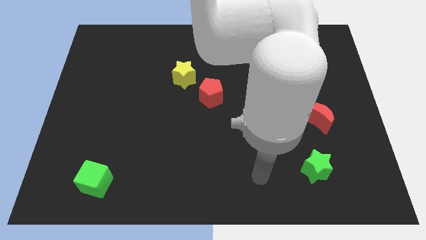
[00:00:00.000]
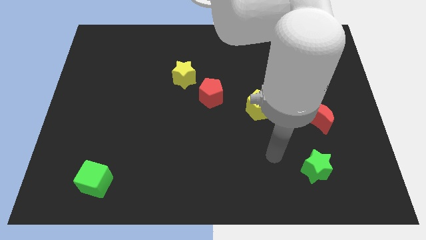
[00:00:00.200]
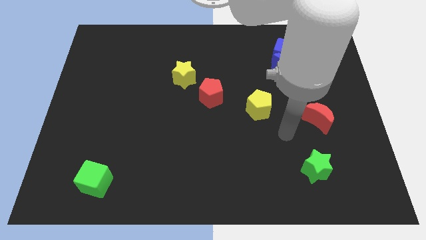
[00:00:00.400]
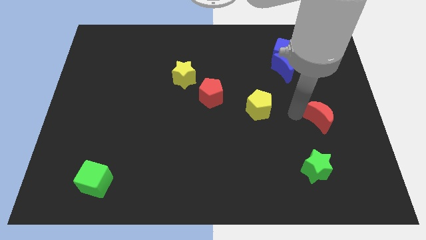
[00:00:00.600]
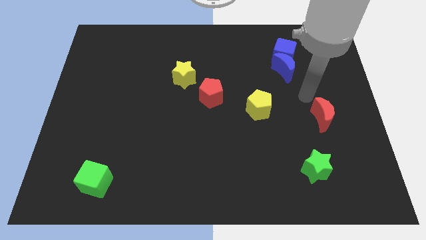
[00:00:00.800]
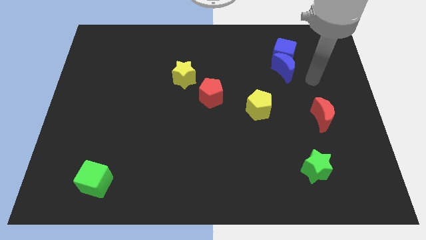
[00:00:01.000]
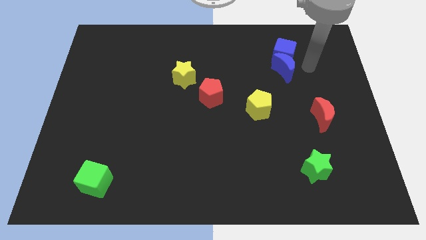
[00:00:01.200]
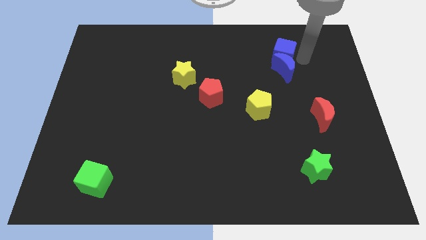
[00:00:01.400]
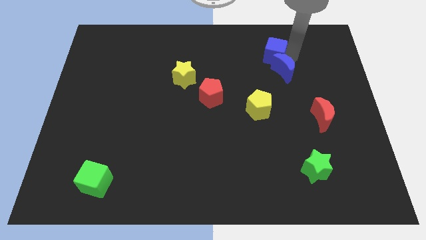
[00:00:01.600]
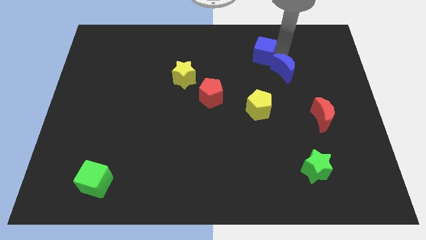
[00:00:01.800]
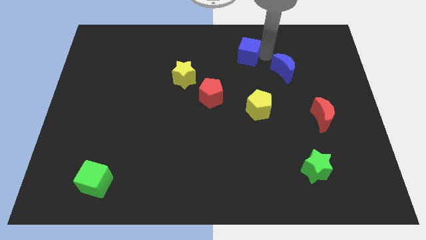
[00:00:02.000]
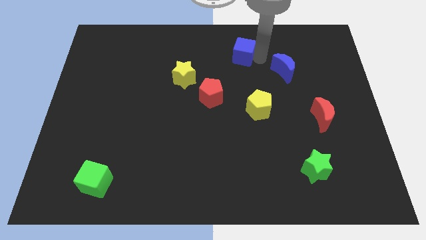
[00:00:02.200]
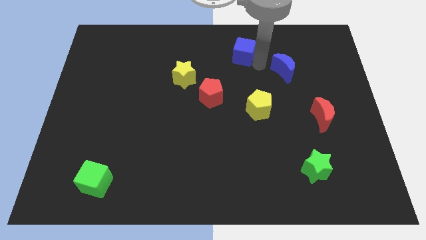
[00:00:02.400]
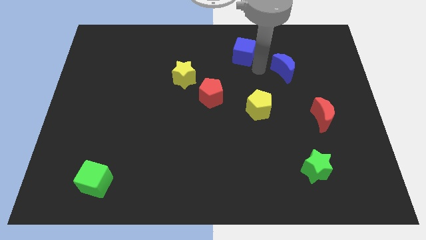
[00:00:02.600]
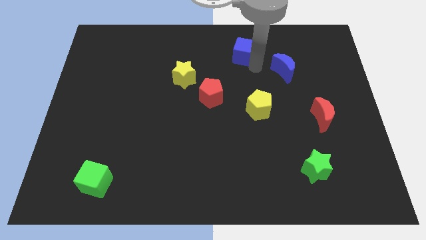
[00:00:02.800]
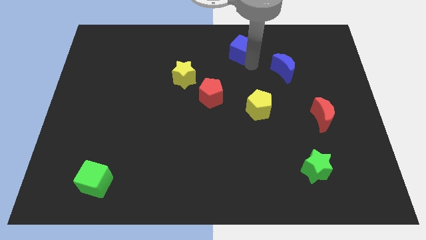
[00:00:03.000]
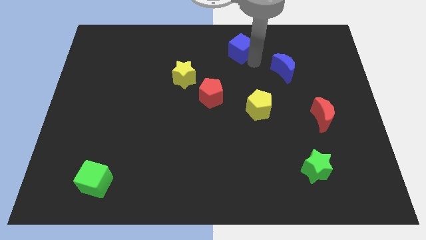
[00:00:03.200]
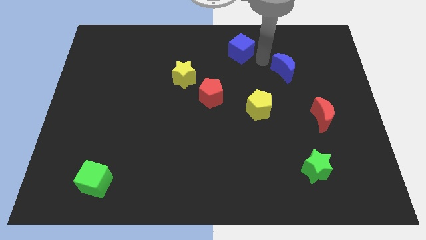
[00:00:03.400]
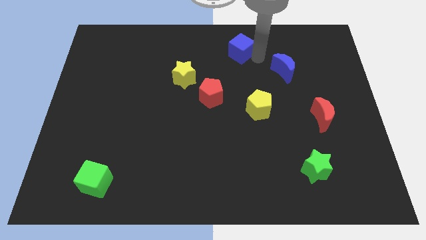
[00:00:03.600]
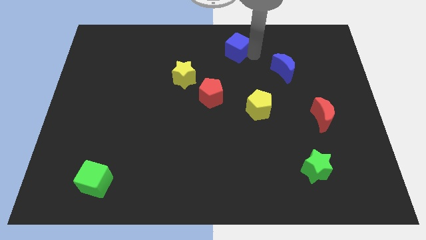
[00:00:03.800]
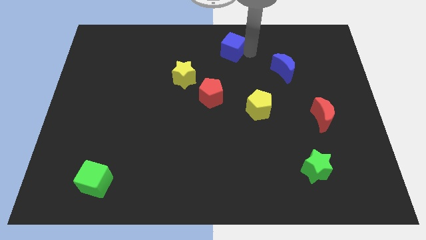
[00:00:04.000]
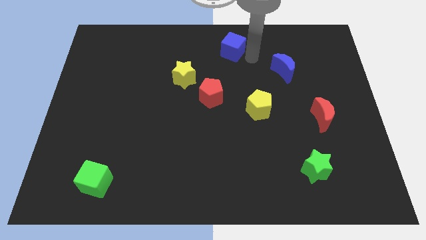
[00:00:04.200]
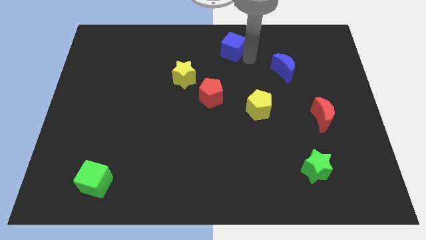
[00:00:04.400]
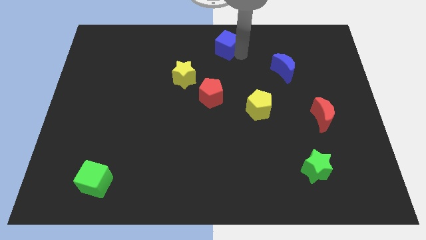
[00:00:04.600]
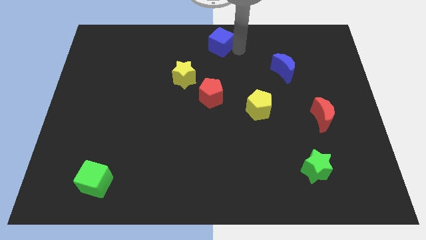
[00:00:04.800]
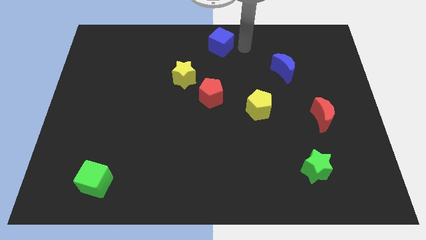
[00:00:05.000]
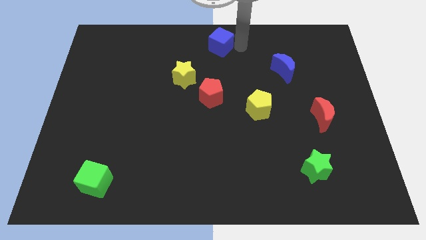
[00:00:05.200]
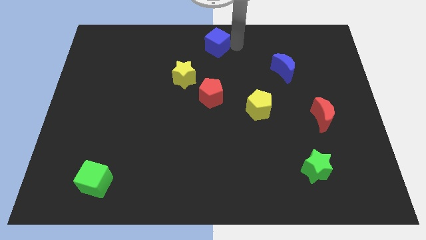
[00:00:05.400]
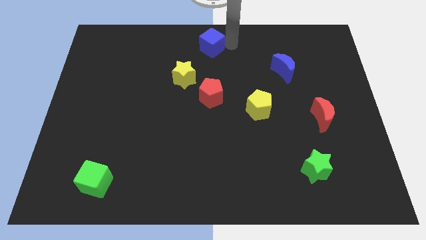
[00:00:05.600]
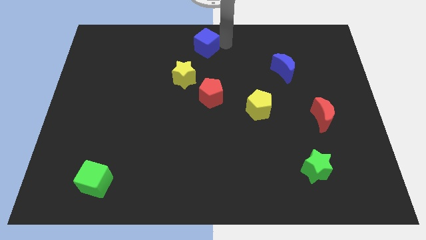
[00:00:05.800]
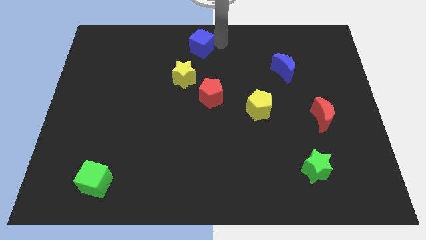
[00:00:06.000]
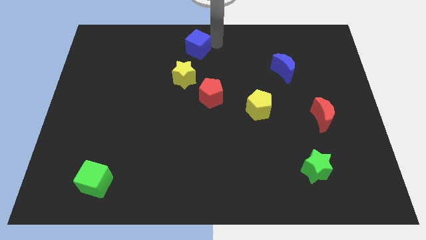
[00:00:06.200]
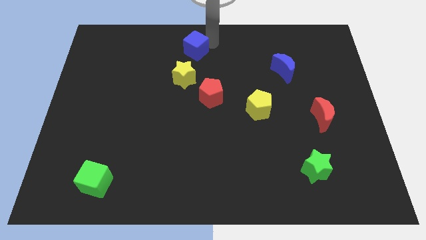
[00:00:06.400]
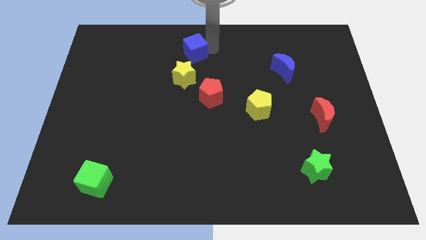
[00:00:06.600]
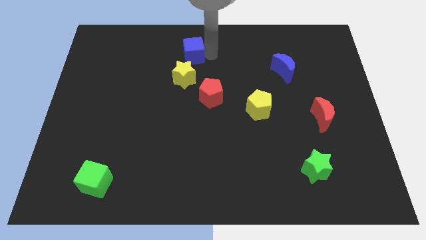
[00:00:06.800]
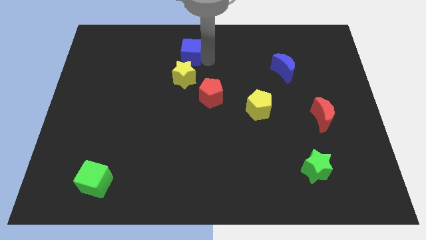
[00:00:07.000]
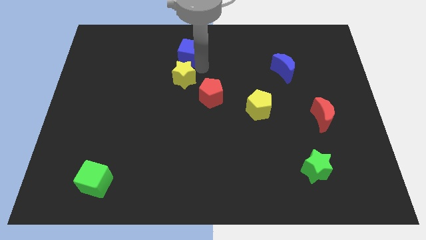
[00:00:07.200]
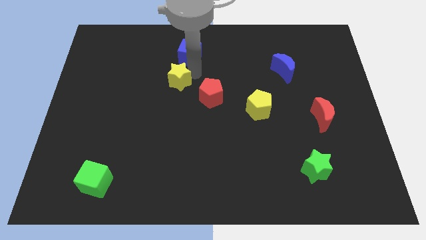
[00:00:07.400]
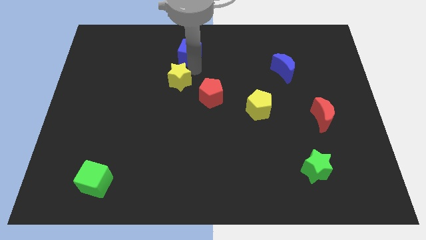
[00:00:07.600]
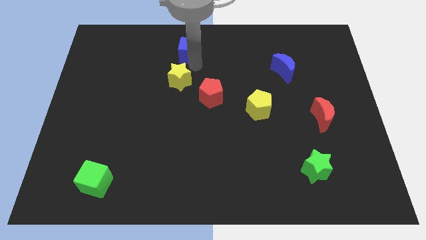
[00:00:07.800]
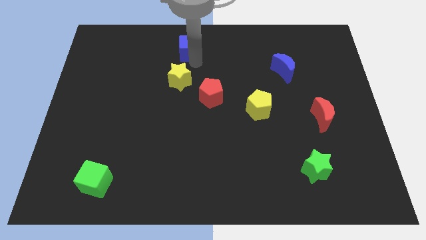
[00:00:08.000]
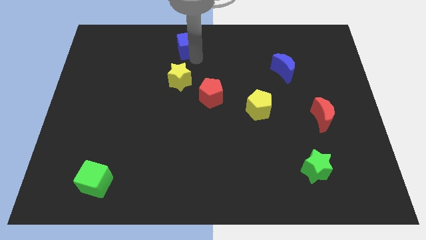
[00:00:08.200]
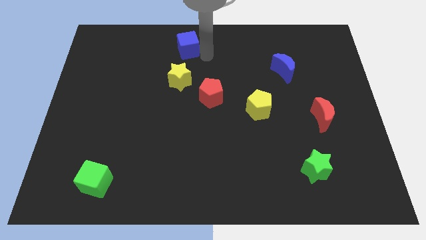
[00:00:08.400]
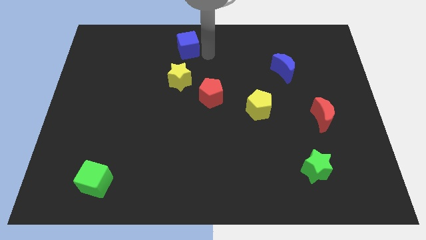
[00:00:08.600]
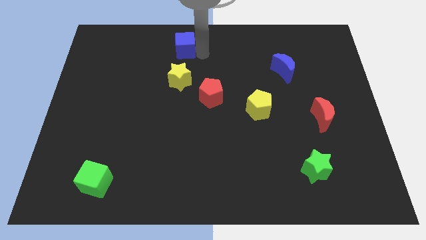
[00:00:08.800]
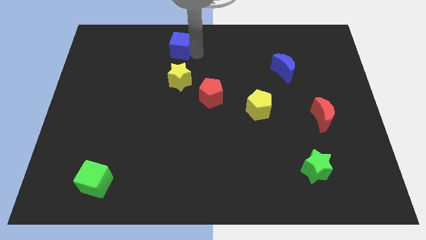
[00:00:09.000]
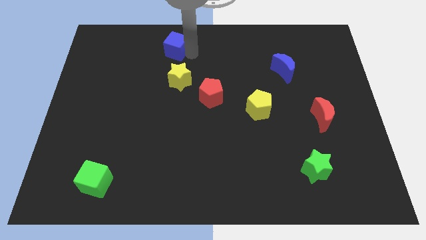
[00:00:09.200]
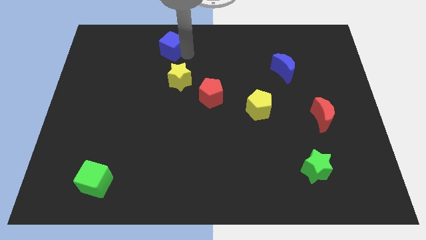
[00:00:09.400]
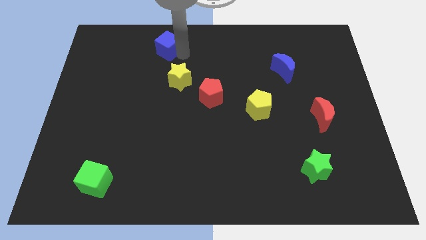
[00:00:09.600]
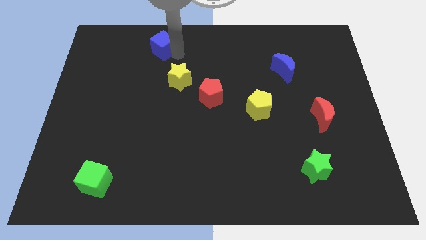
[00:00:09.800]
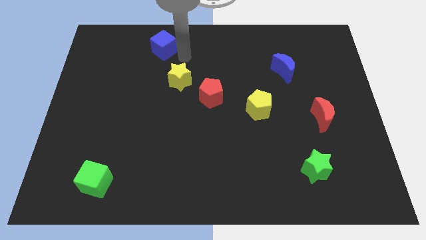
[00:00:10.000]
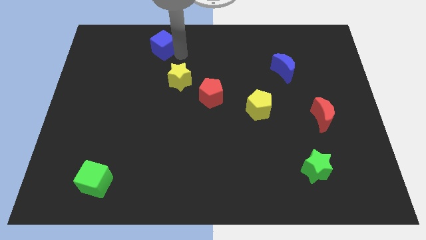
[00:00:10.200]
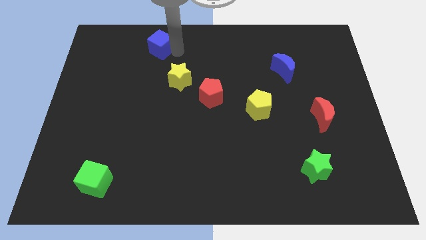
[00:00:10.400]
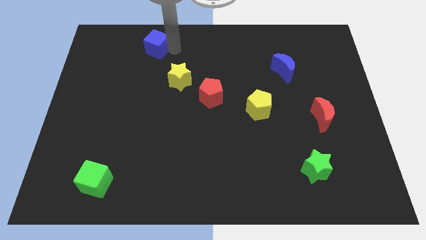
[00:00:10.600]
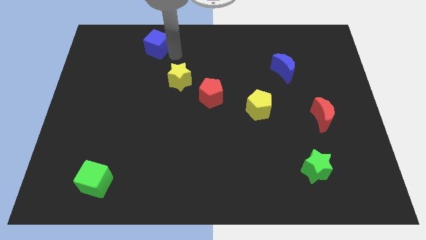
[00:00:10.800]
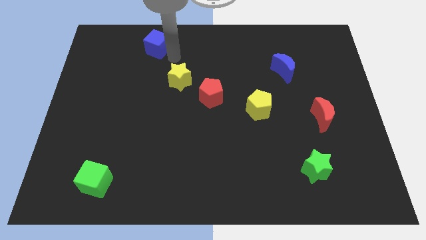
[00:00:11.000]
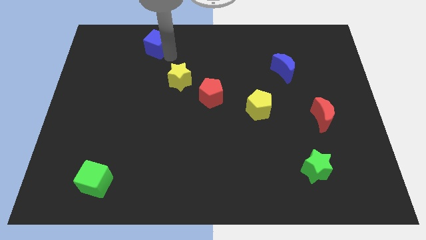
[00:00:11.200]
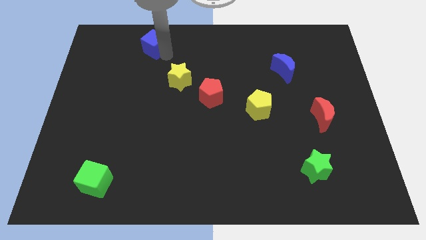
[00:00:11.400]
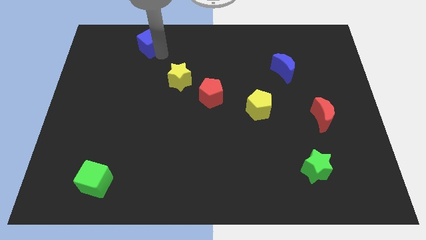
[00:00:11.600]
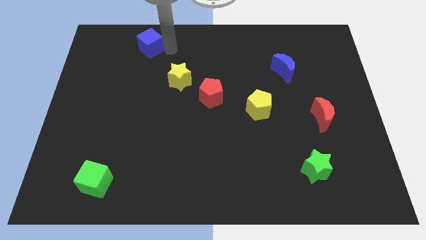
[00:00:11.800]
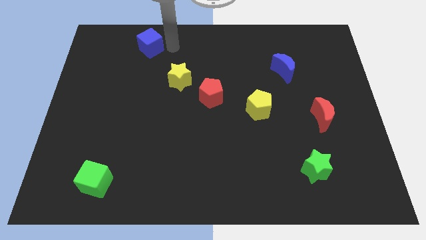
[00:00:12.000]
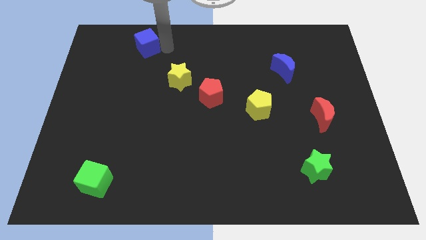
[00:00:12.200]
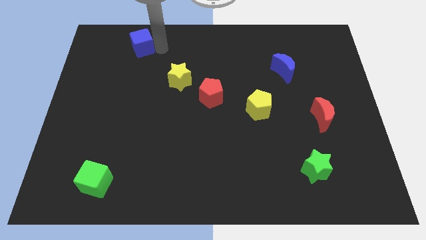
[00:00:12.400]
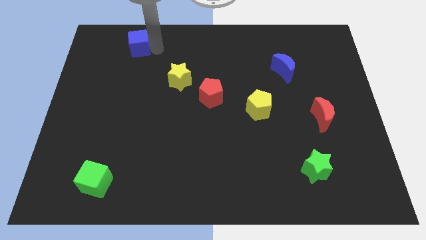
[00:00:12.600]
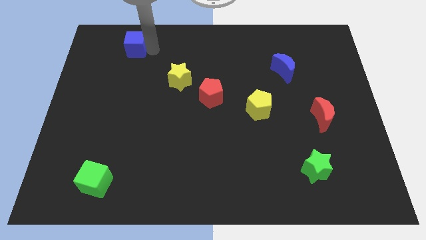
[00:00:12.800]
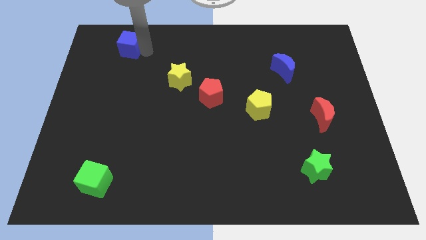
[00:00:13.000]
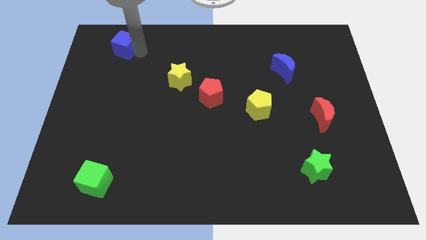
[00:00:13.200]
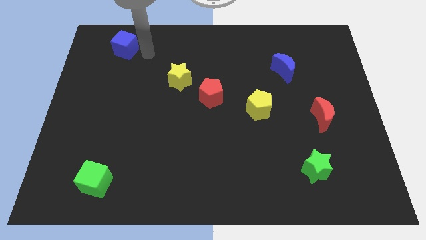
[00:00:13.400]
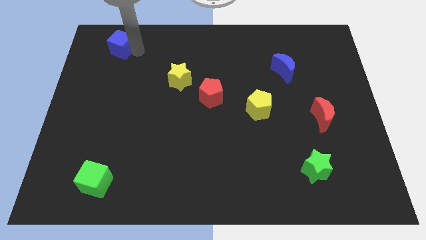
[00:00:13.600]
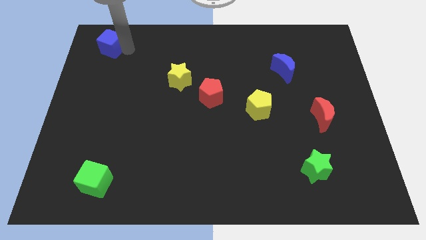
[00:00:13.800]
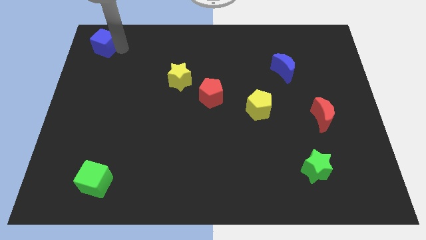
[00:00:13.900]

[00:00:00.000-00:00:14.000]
slide the blue cube to the top left of the board

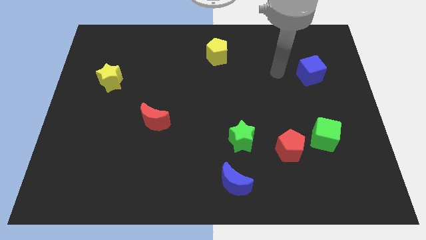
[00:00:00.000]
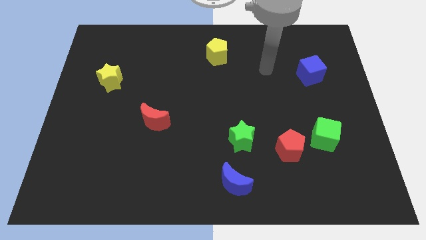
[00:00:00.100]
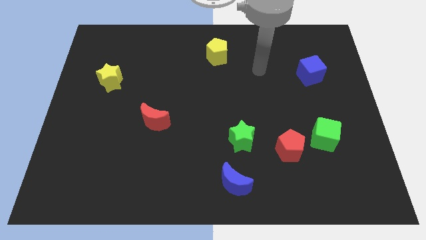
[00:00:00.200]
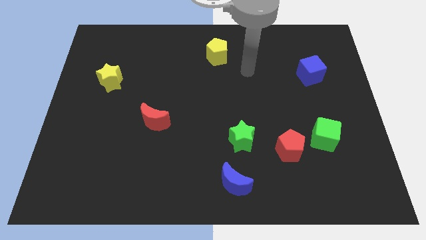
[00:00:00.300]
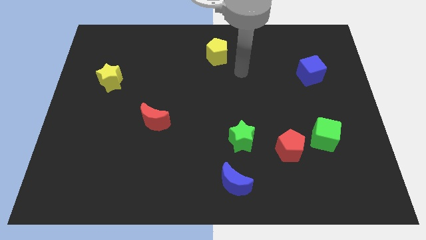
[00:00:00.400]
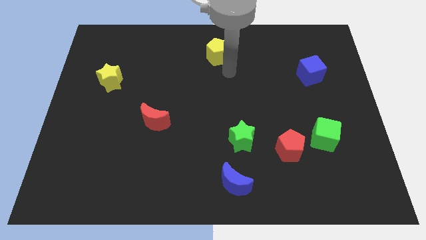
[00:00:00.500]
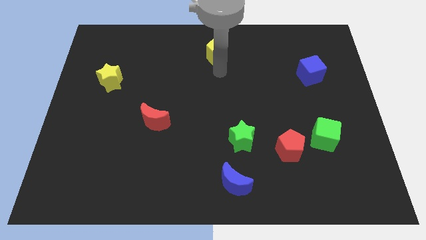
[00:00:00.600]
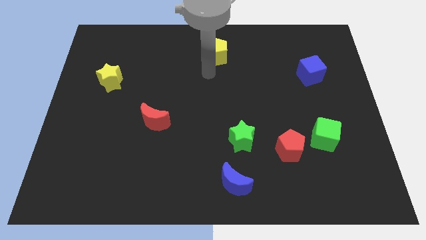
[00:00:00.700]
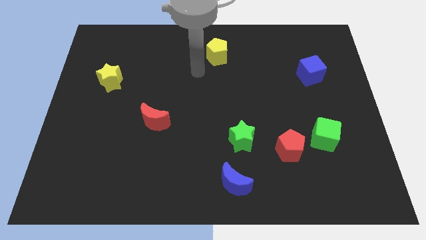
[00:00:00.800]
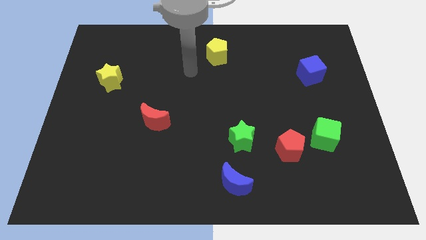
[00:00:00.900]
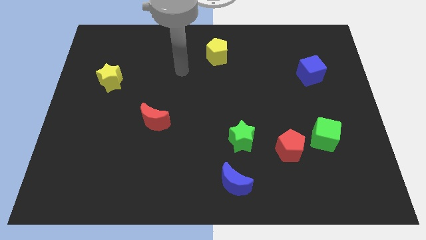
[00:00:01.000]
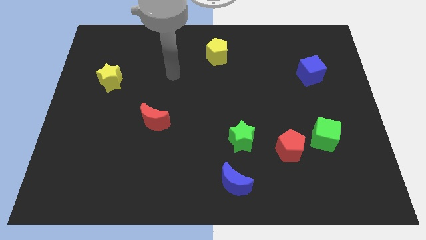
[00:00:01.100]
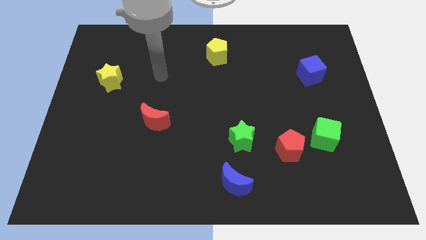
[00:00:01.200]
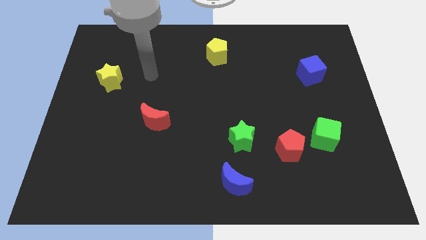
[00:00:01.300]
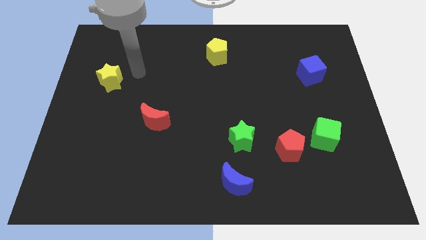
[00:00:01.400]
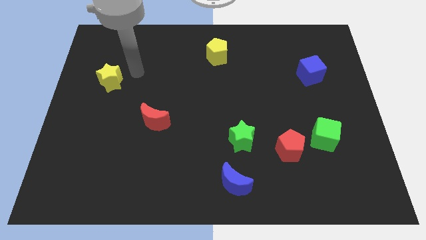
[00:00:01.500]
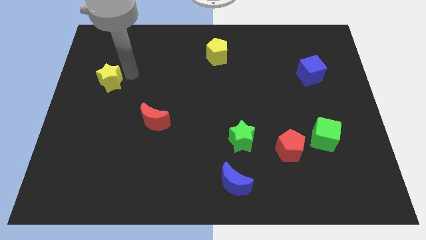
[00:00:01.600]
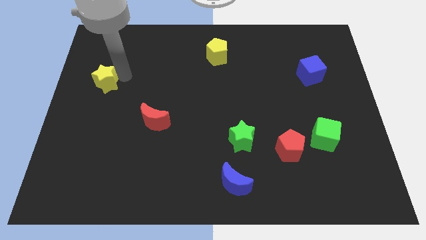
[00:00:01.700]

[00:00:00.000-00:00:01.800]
put the yellow star to the left side
